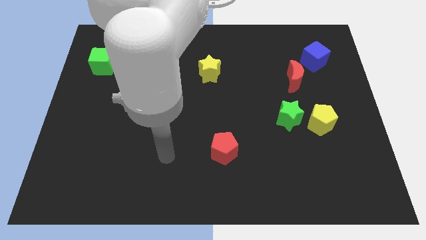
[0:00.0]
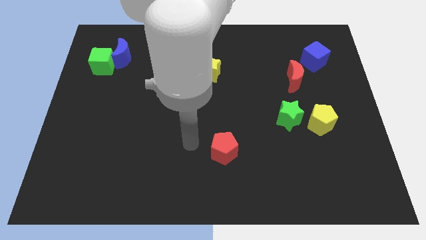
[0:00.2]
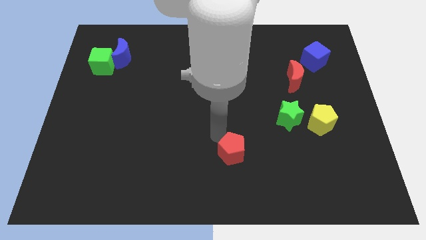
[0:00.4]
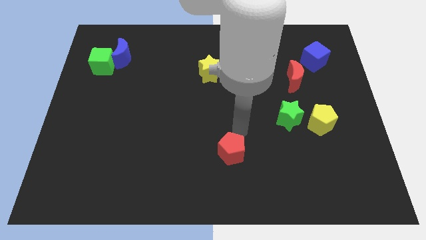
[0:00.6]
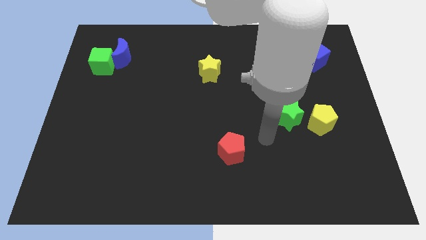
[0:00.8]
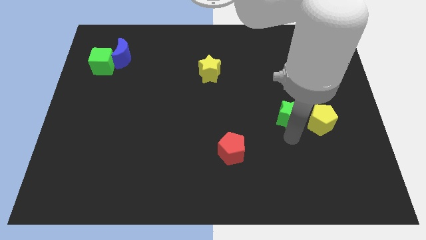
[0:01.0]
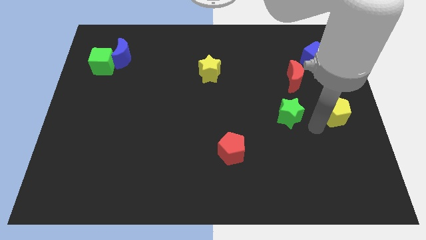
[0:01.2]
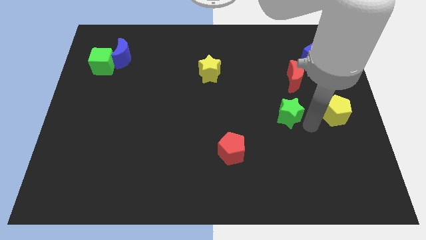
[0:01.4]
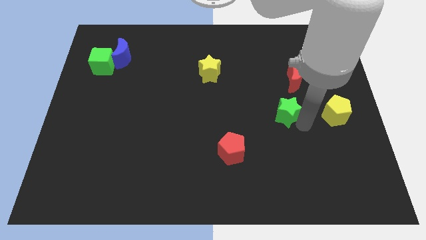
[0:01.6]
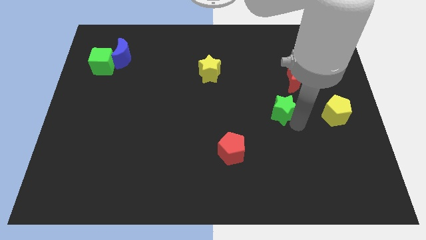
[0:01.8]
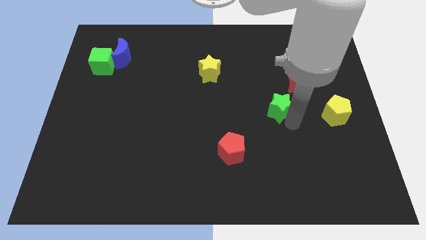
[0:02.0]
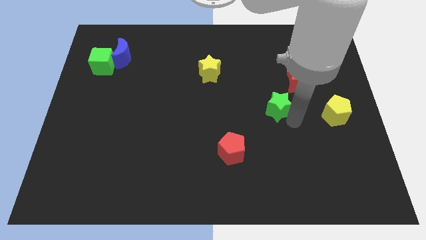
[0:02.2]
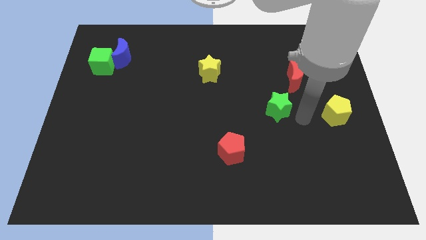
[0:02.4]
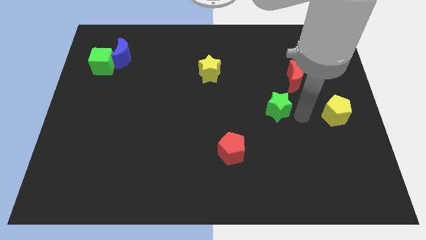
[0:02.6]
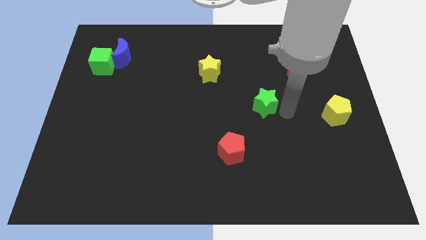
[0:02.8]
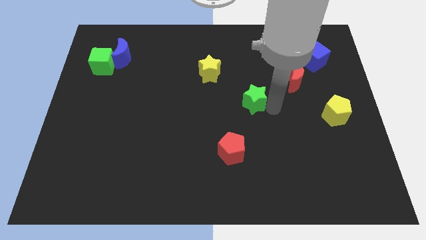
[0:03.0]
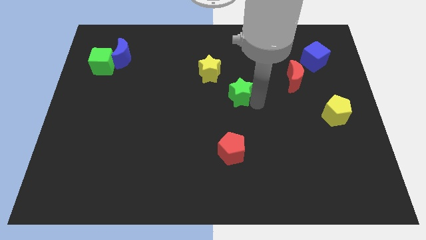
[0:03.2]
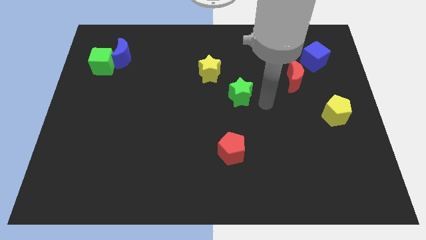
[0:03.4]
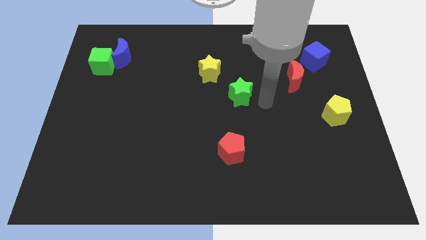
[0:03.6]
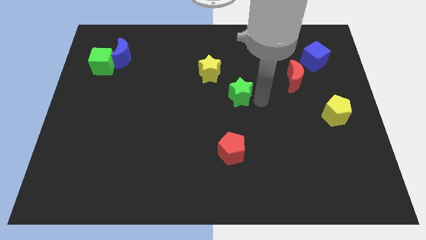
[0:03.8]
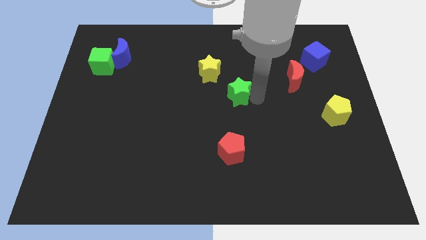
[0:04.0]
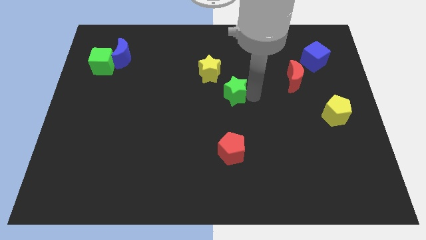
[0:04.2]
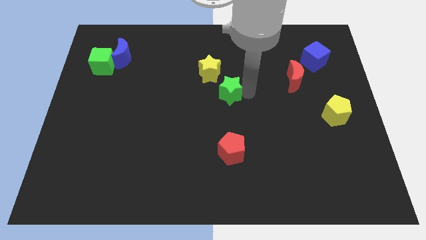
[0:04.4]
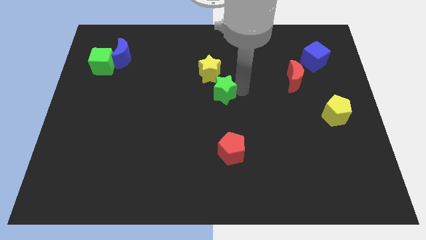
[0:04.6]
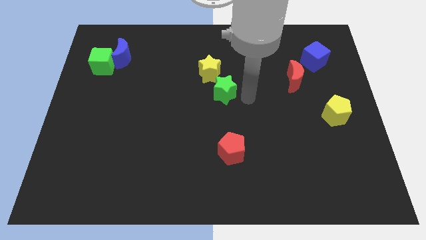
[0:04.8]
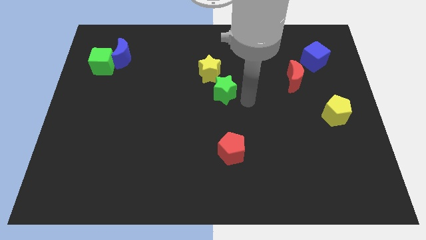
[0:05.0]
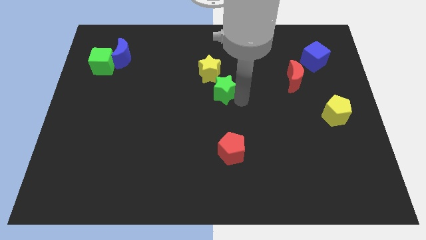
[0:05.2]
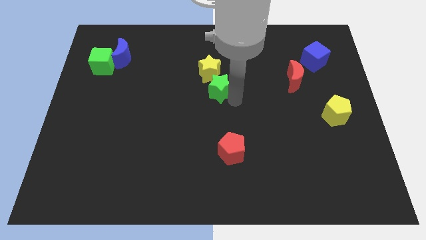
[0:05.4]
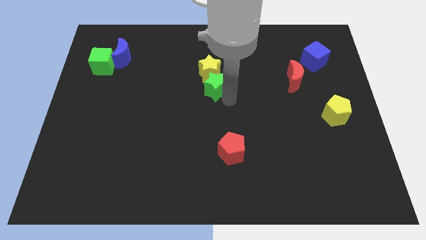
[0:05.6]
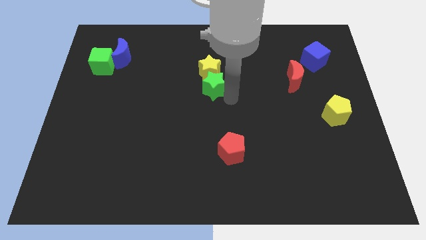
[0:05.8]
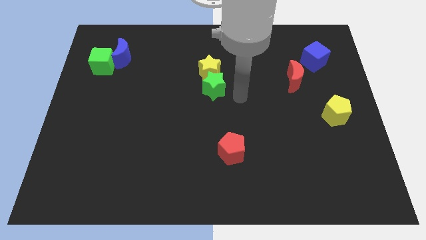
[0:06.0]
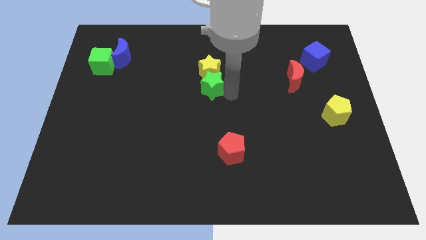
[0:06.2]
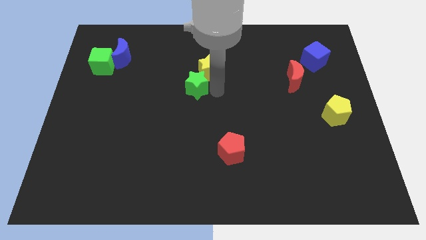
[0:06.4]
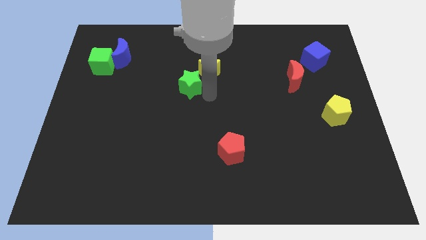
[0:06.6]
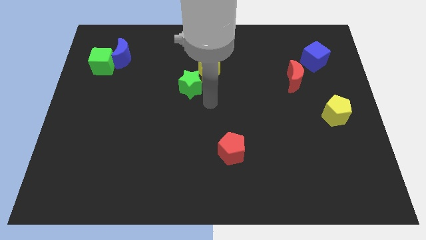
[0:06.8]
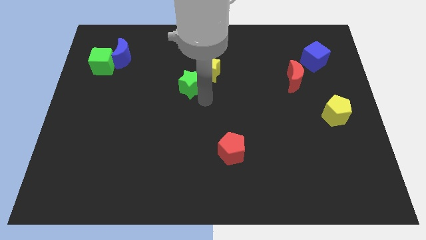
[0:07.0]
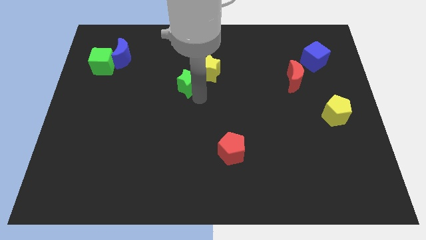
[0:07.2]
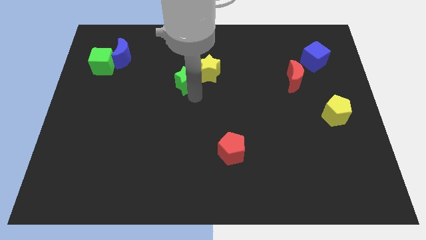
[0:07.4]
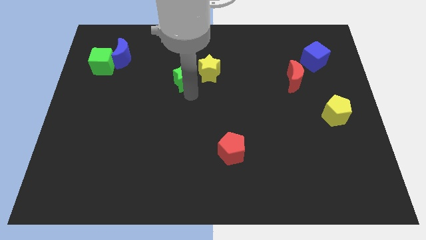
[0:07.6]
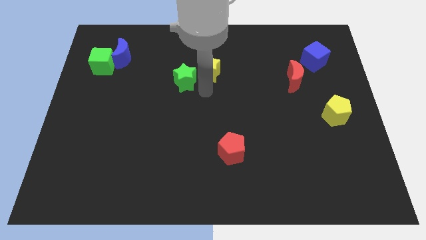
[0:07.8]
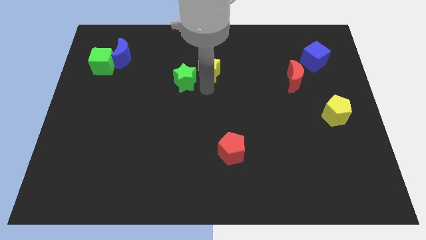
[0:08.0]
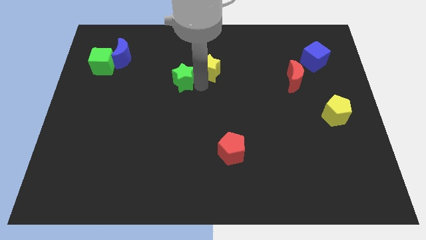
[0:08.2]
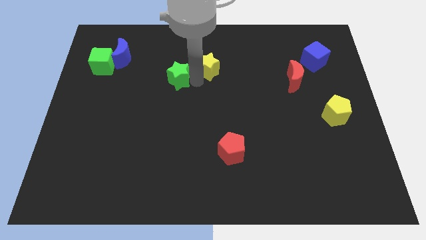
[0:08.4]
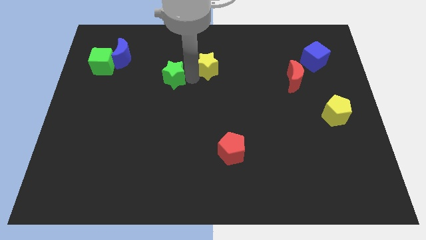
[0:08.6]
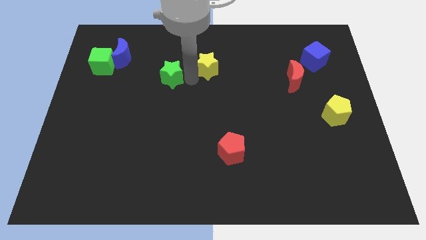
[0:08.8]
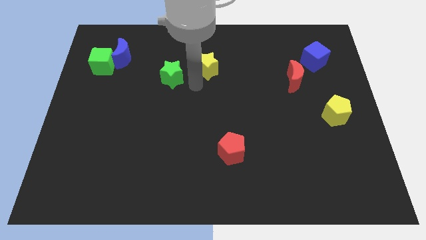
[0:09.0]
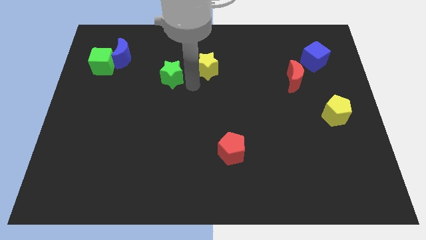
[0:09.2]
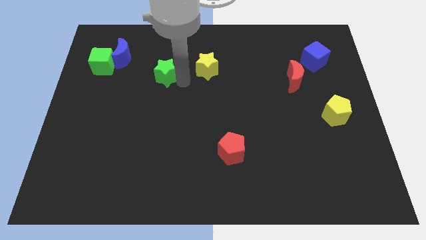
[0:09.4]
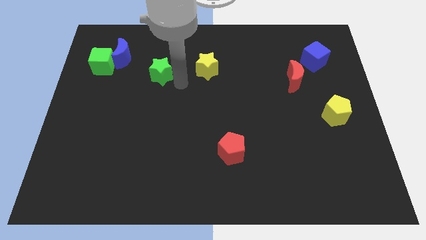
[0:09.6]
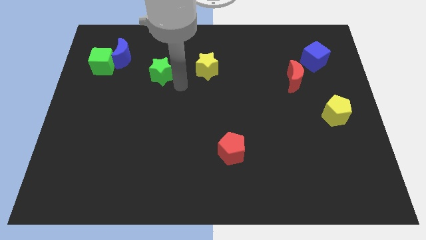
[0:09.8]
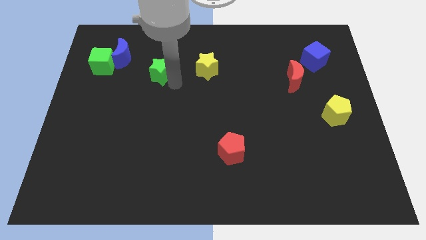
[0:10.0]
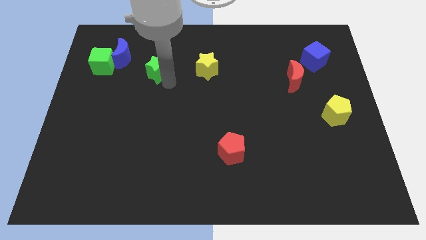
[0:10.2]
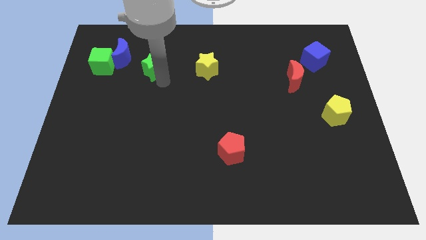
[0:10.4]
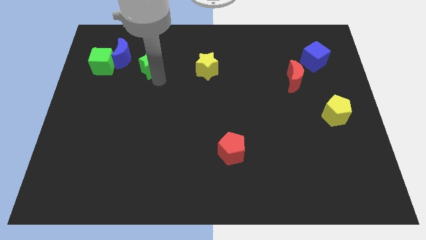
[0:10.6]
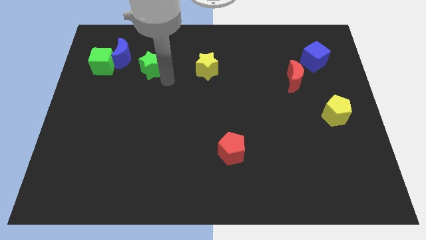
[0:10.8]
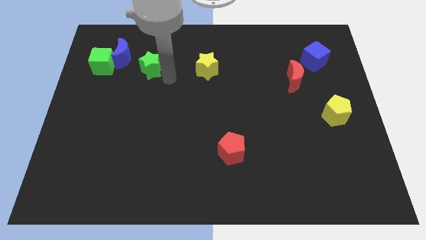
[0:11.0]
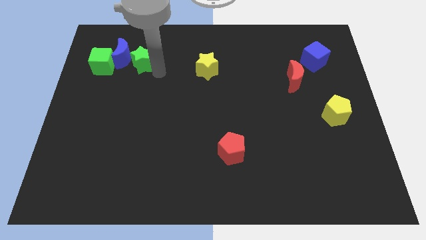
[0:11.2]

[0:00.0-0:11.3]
push the green star to the blue moon

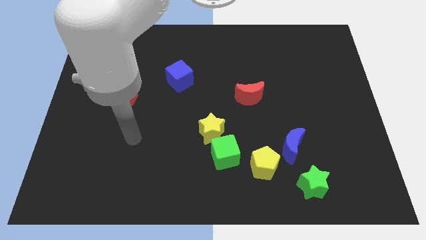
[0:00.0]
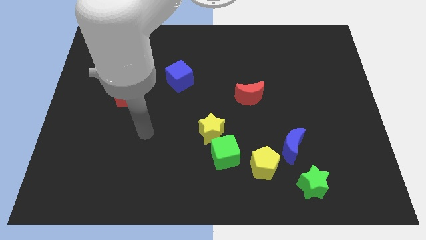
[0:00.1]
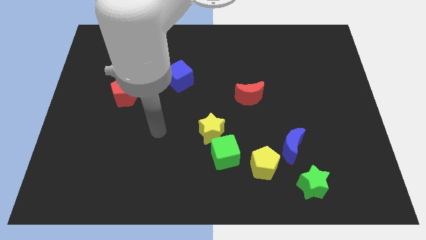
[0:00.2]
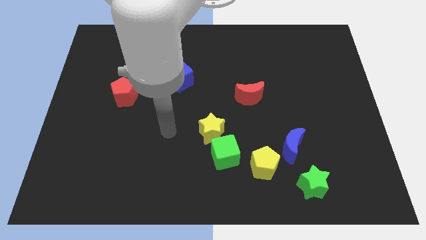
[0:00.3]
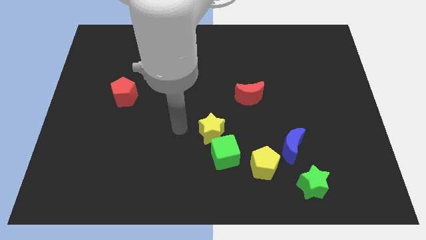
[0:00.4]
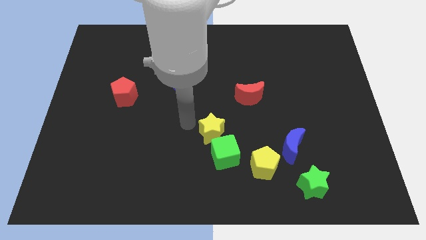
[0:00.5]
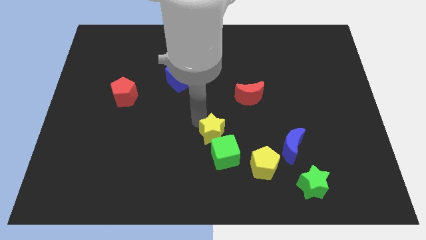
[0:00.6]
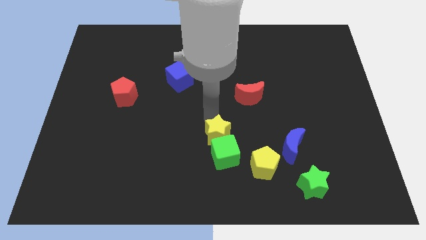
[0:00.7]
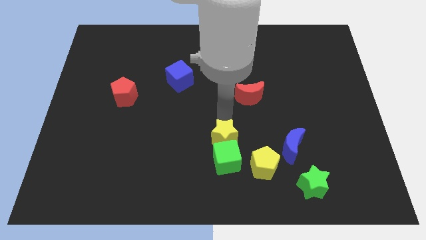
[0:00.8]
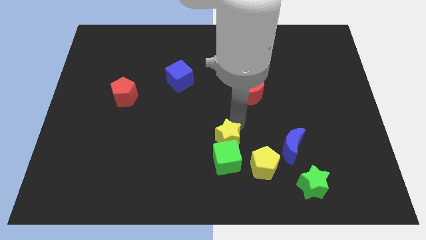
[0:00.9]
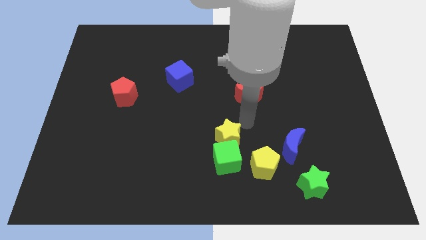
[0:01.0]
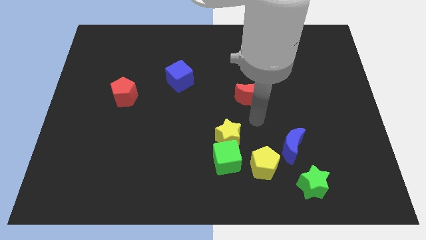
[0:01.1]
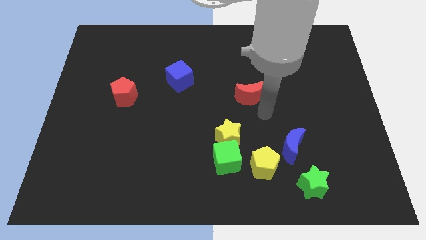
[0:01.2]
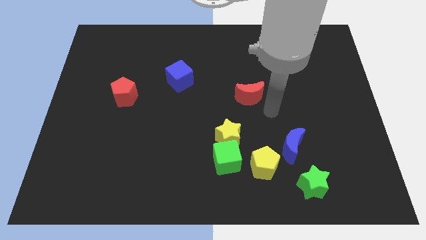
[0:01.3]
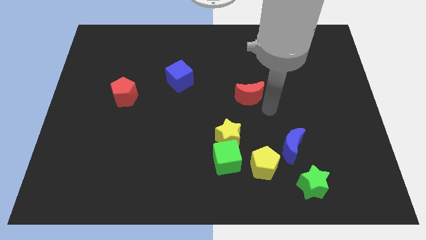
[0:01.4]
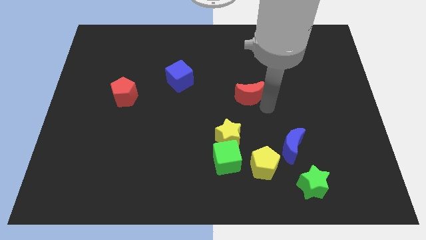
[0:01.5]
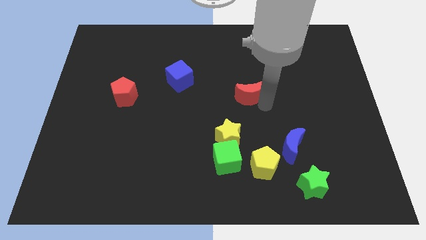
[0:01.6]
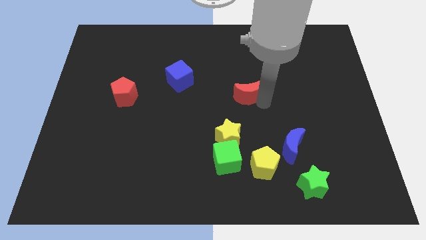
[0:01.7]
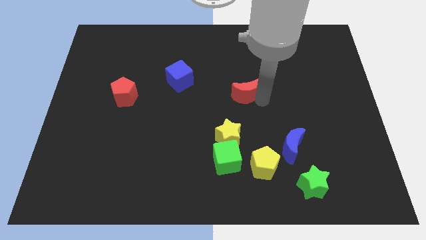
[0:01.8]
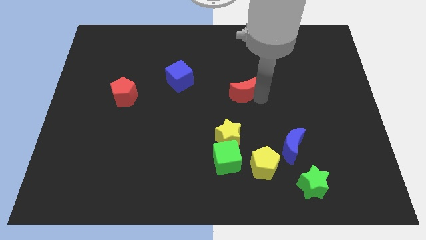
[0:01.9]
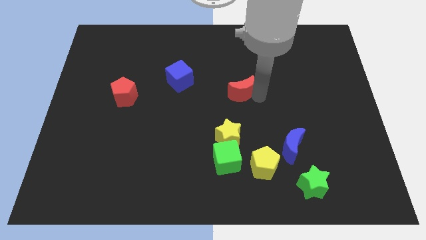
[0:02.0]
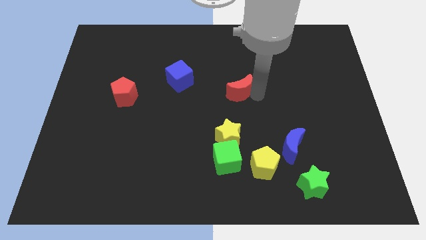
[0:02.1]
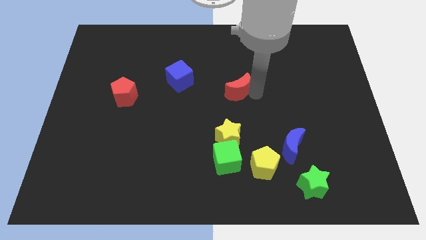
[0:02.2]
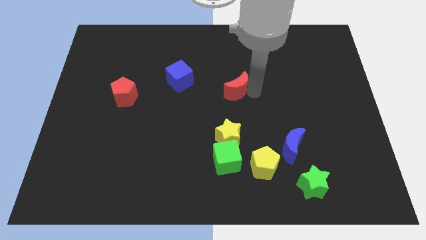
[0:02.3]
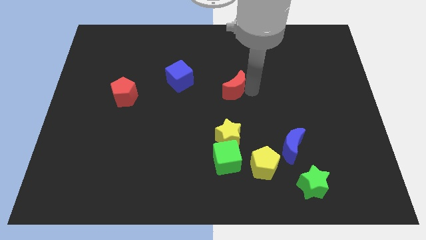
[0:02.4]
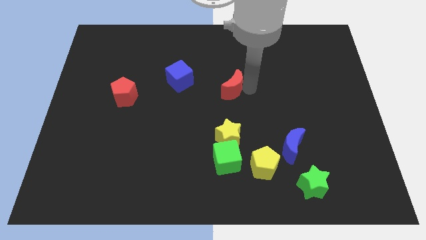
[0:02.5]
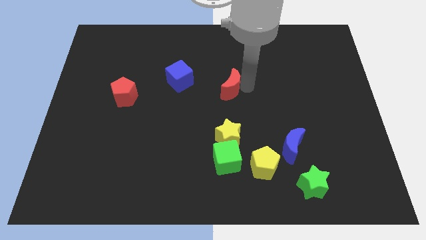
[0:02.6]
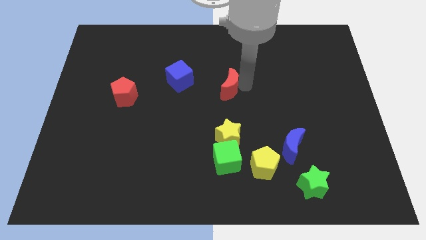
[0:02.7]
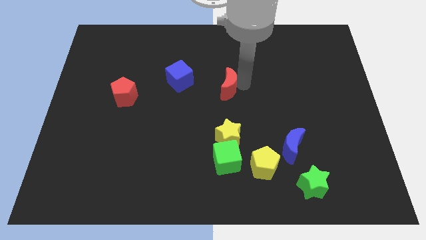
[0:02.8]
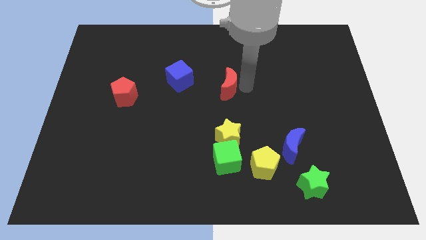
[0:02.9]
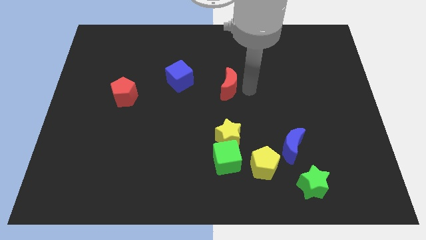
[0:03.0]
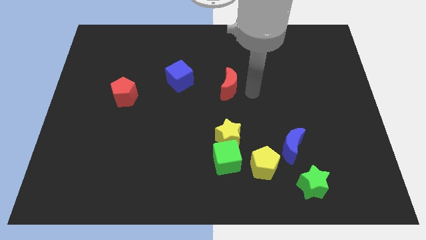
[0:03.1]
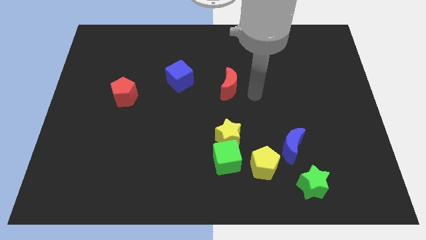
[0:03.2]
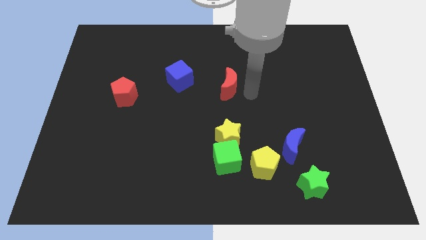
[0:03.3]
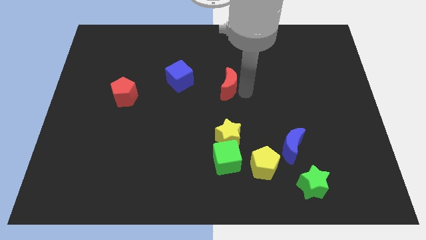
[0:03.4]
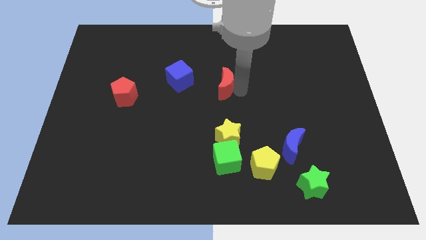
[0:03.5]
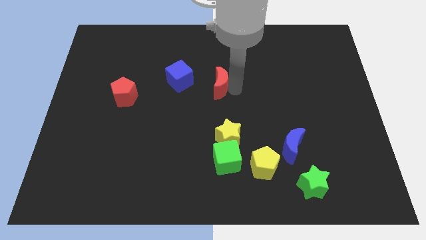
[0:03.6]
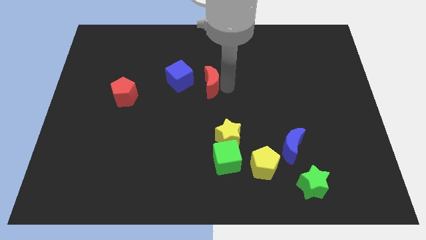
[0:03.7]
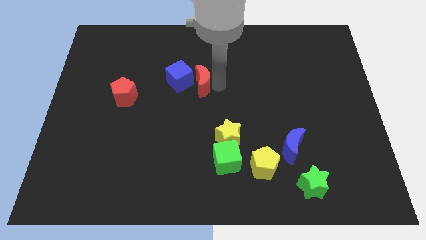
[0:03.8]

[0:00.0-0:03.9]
move the red moon to the blue cube
